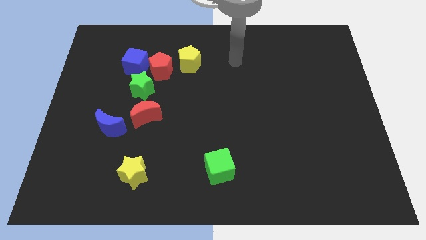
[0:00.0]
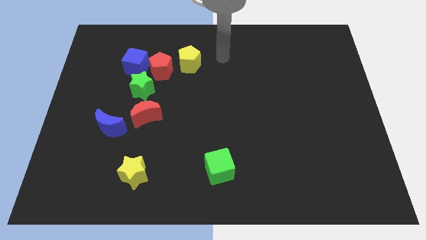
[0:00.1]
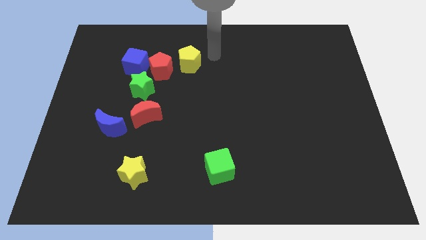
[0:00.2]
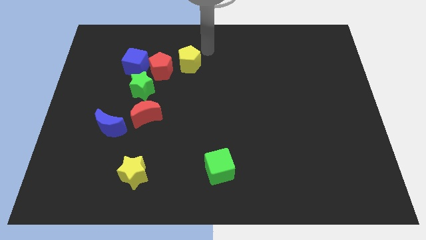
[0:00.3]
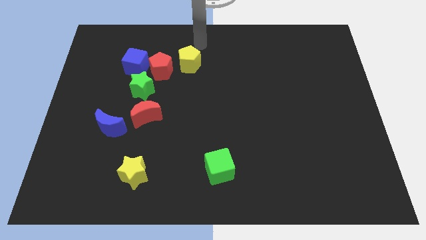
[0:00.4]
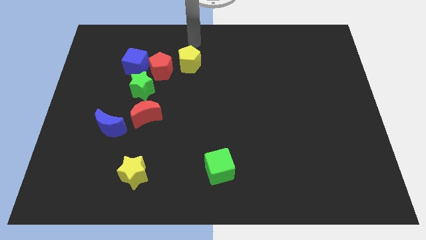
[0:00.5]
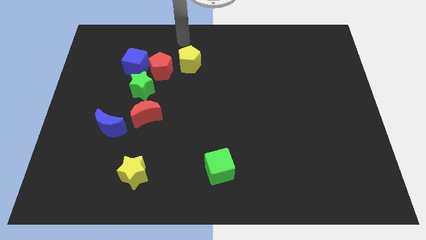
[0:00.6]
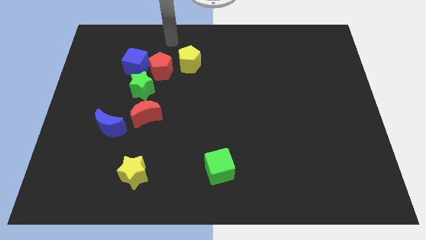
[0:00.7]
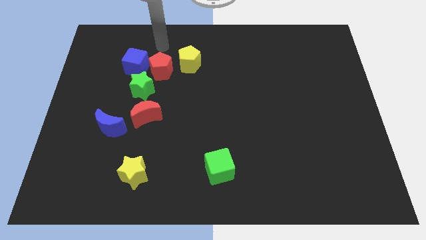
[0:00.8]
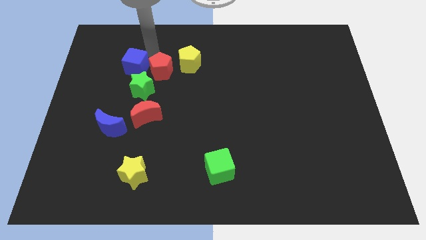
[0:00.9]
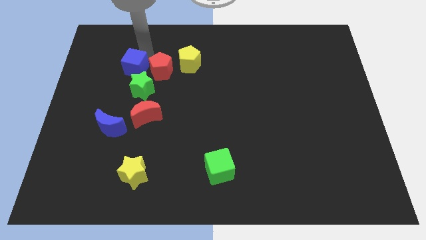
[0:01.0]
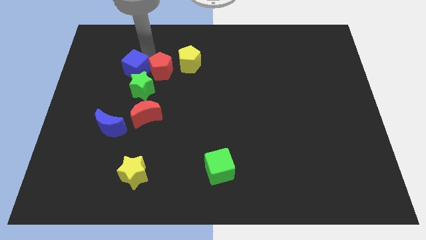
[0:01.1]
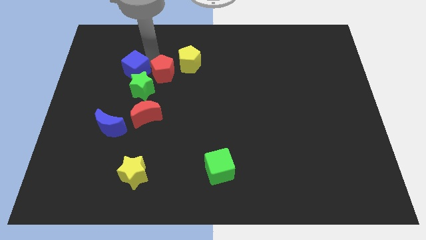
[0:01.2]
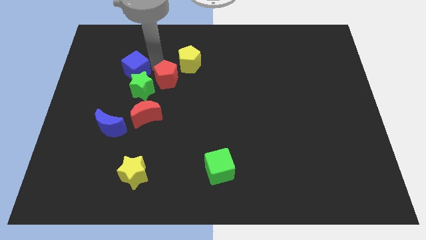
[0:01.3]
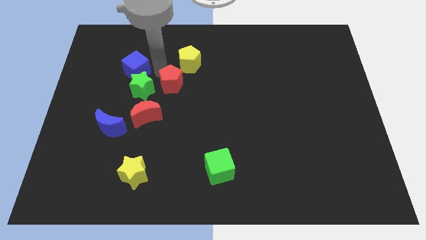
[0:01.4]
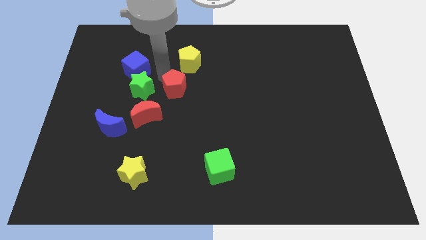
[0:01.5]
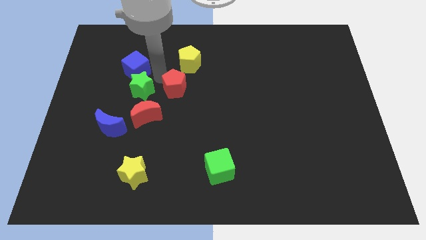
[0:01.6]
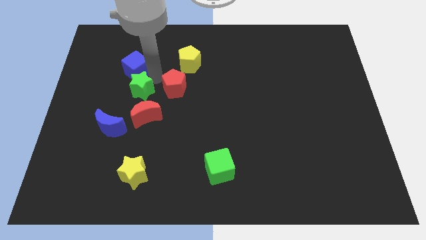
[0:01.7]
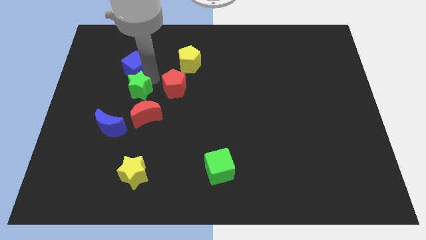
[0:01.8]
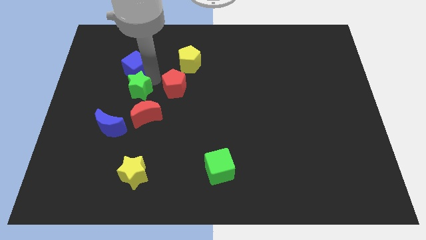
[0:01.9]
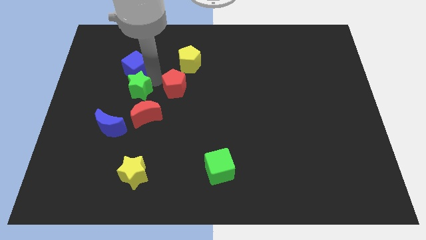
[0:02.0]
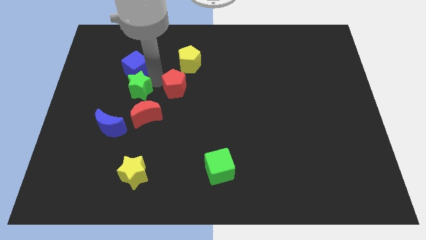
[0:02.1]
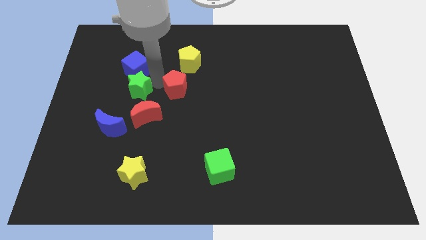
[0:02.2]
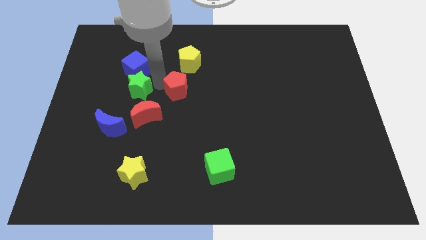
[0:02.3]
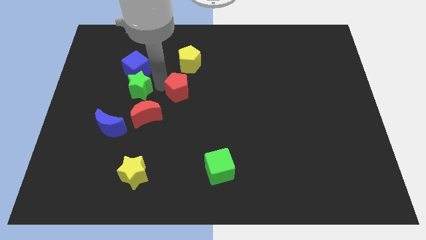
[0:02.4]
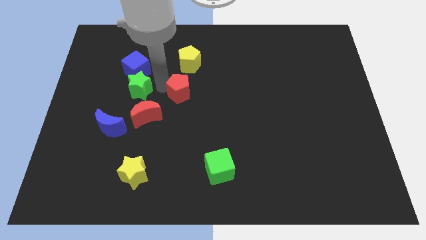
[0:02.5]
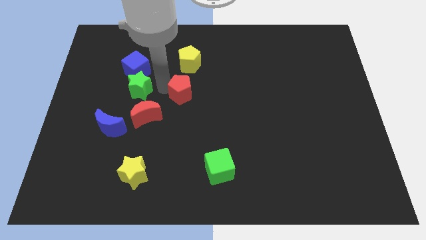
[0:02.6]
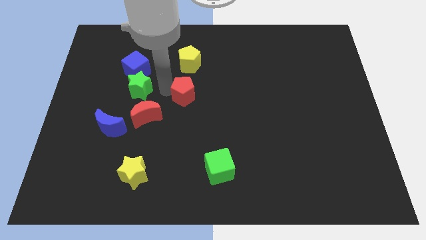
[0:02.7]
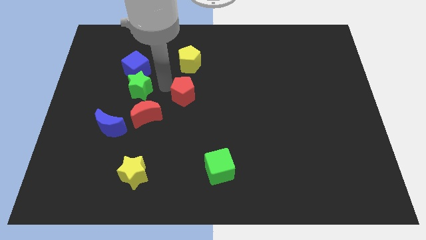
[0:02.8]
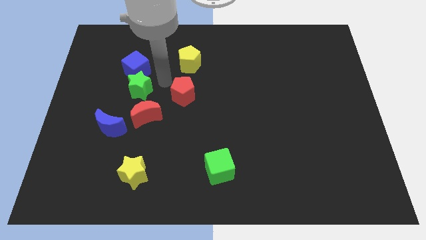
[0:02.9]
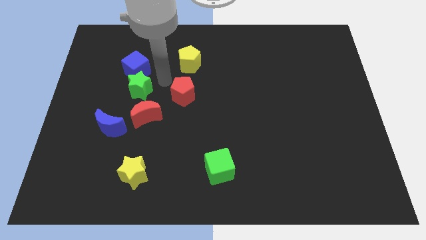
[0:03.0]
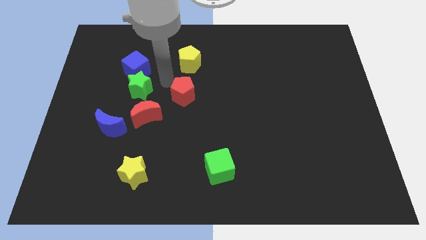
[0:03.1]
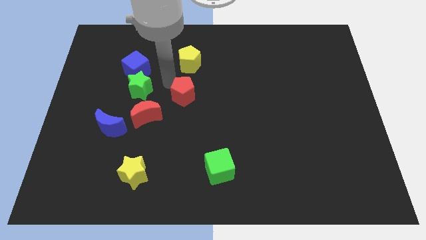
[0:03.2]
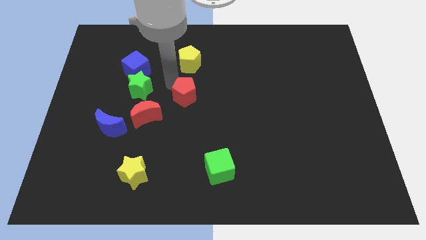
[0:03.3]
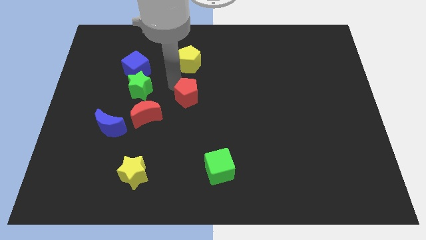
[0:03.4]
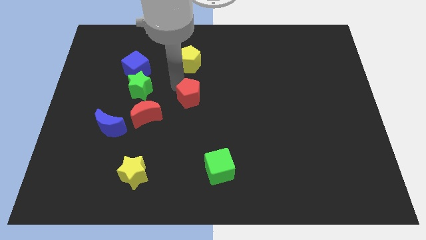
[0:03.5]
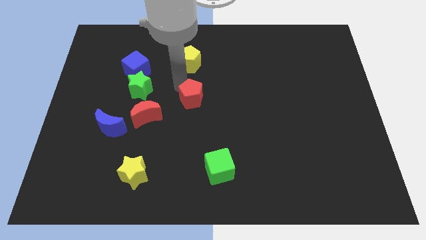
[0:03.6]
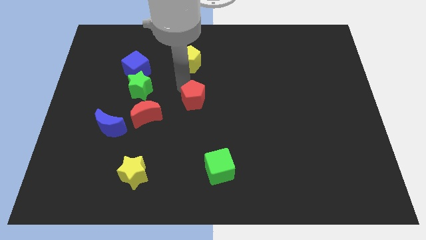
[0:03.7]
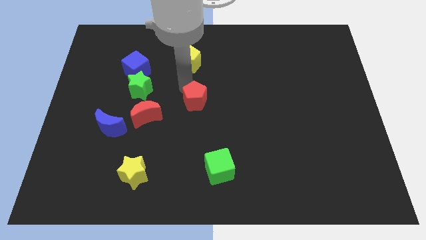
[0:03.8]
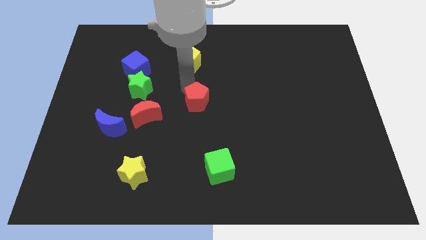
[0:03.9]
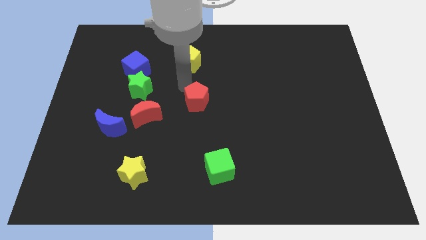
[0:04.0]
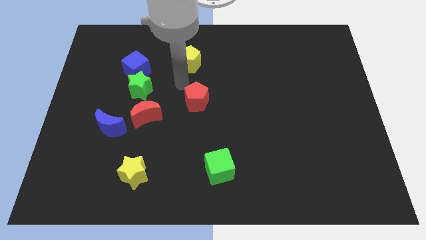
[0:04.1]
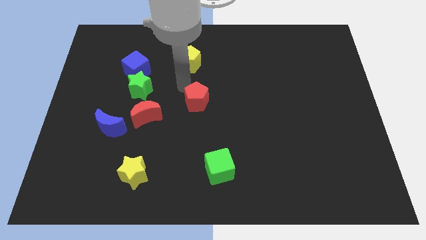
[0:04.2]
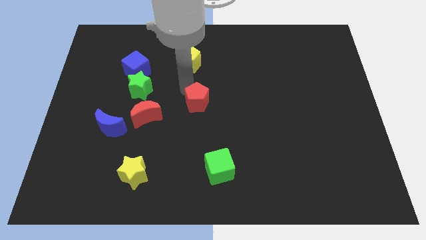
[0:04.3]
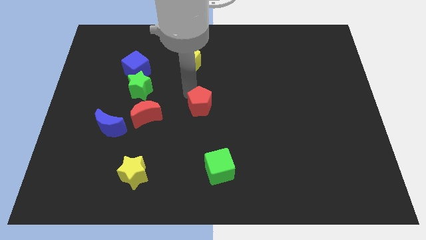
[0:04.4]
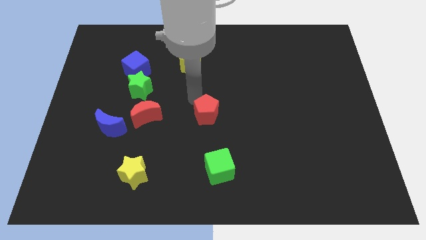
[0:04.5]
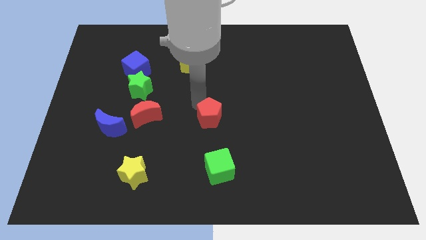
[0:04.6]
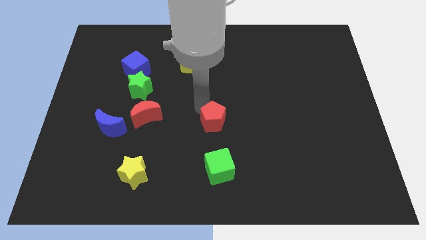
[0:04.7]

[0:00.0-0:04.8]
push the red pentagon downwards and right diagonally

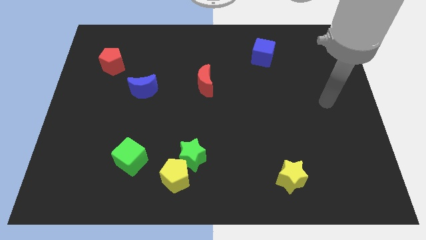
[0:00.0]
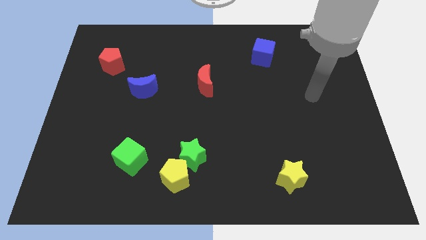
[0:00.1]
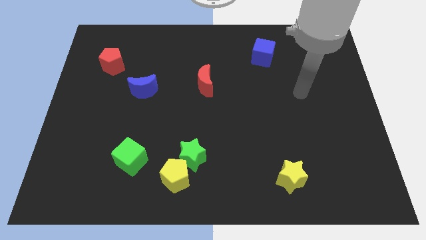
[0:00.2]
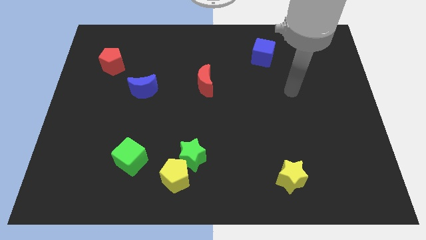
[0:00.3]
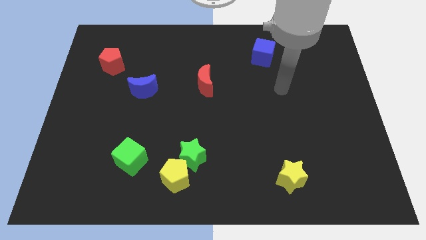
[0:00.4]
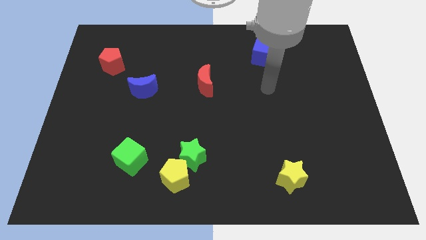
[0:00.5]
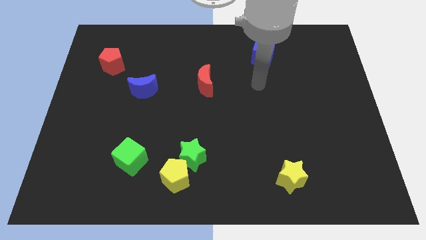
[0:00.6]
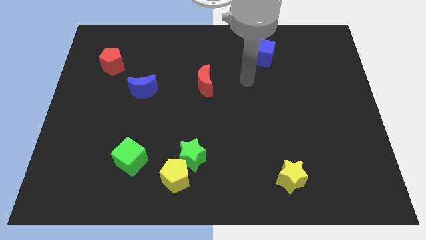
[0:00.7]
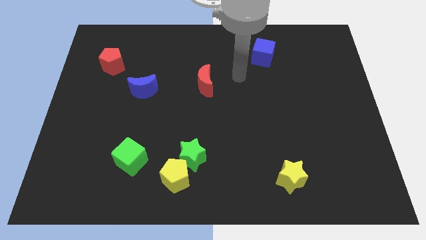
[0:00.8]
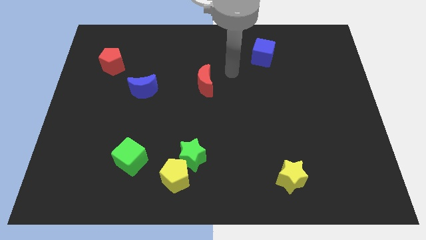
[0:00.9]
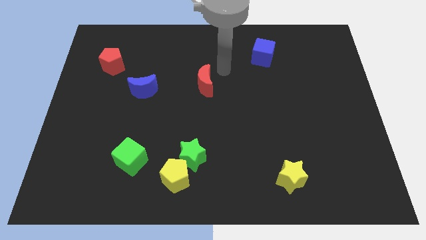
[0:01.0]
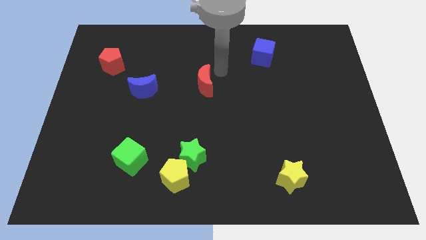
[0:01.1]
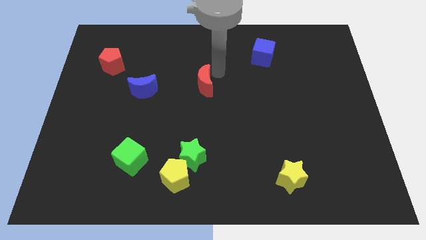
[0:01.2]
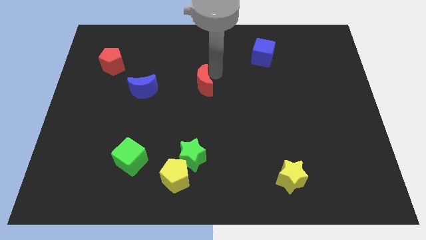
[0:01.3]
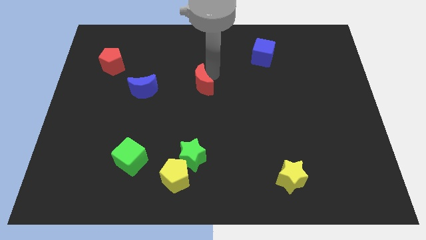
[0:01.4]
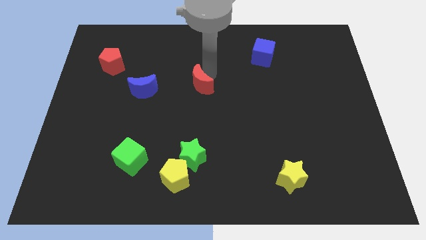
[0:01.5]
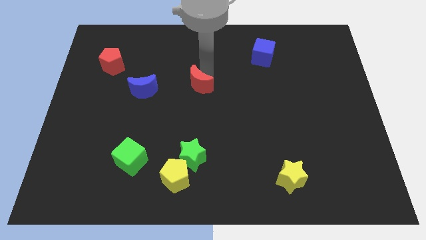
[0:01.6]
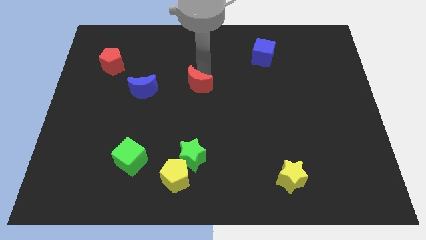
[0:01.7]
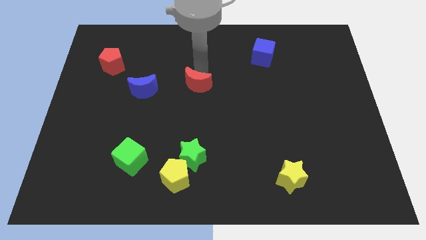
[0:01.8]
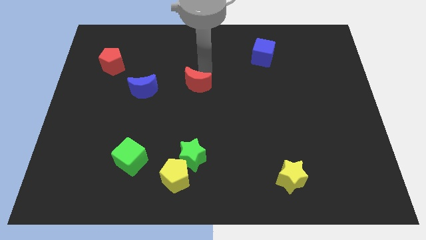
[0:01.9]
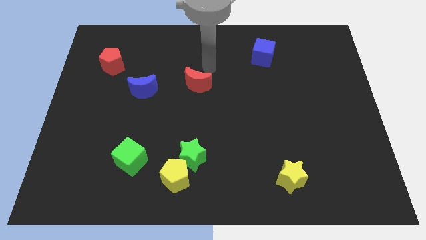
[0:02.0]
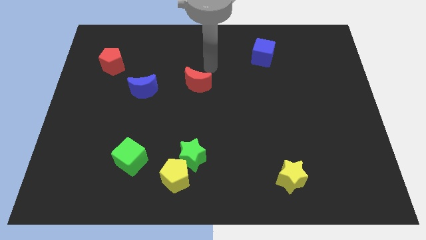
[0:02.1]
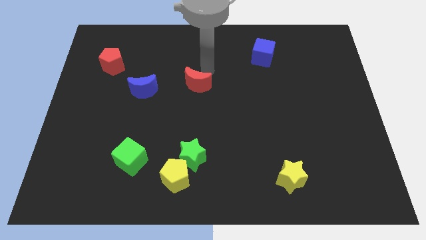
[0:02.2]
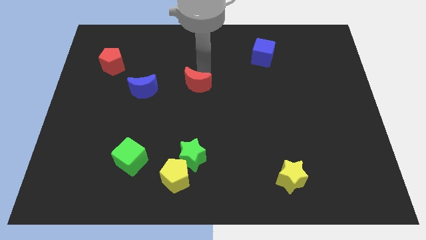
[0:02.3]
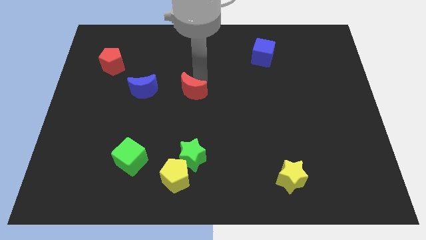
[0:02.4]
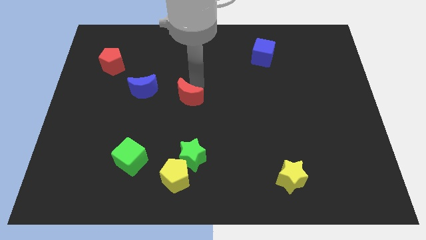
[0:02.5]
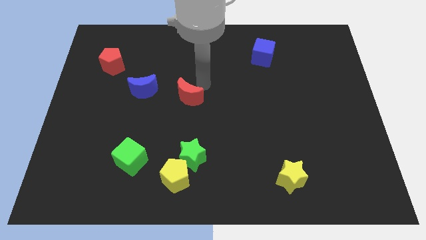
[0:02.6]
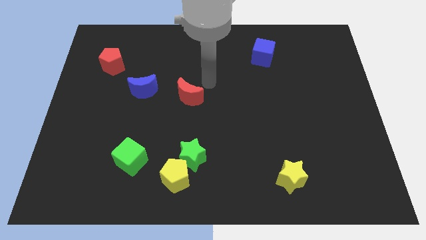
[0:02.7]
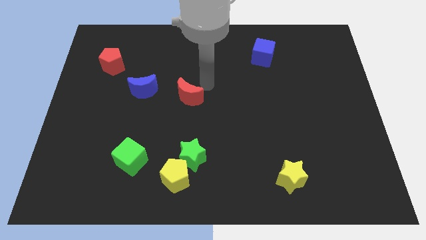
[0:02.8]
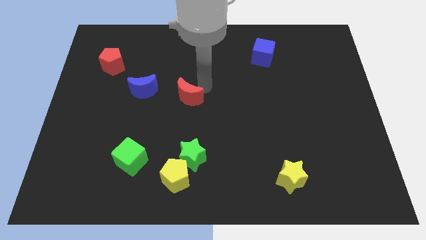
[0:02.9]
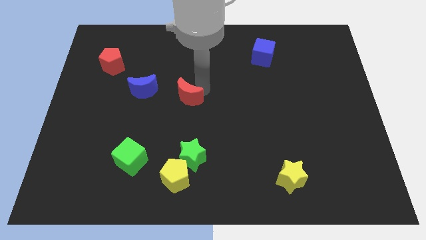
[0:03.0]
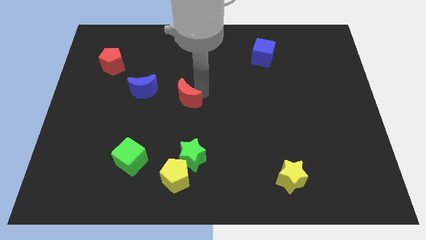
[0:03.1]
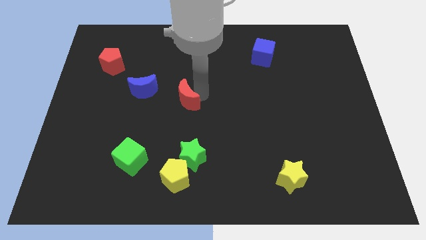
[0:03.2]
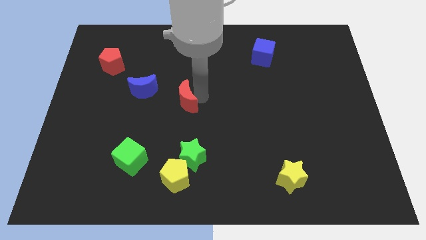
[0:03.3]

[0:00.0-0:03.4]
push the red moon somewhat down and then to the left
